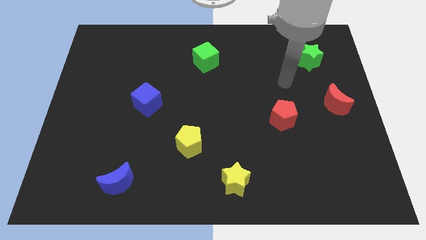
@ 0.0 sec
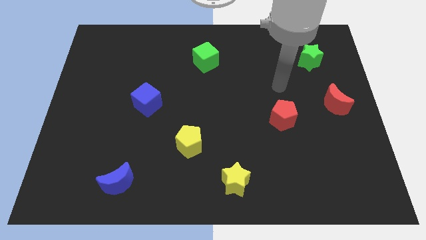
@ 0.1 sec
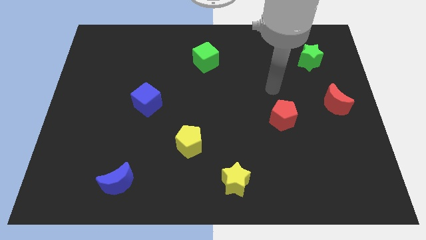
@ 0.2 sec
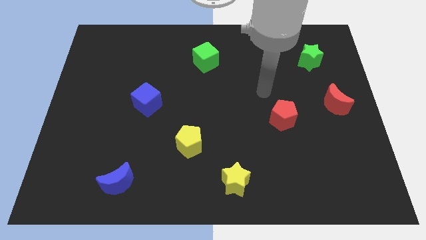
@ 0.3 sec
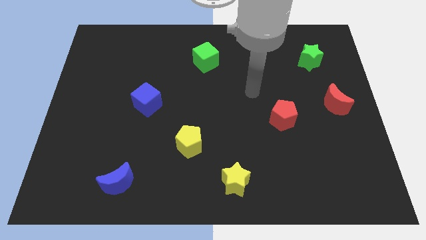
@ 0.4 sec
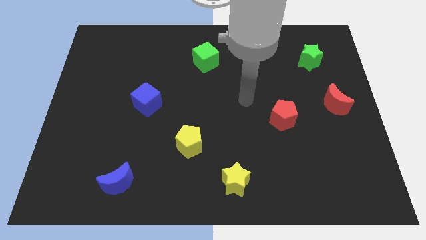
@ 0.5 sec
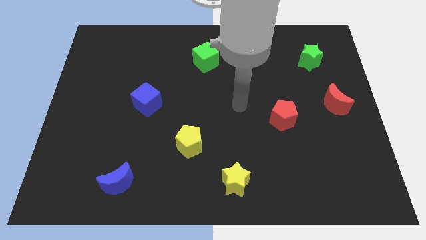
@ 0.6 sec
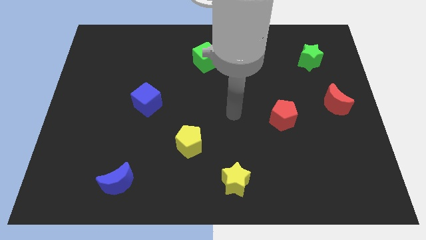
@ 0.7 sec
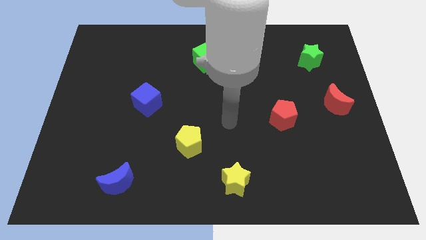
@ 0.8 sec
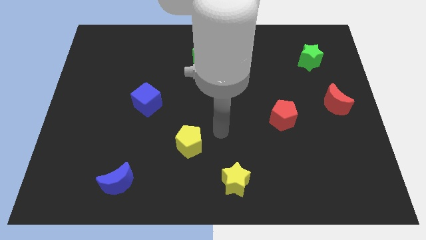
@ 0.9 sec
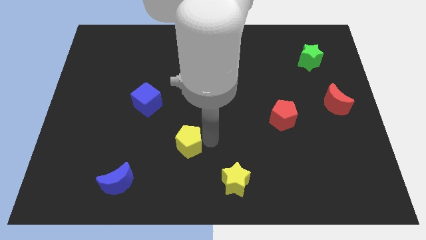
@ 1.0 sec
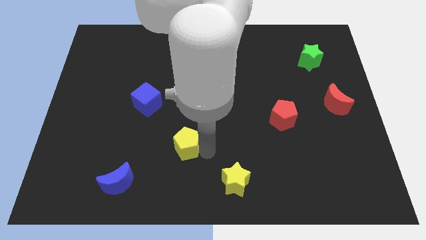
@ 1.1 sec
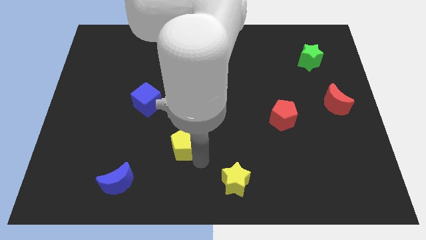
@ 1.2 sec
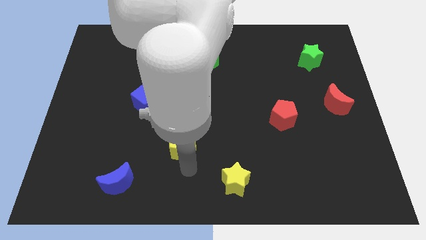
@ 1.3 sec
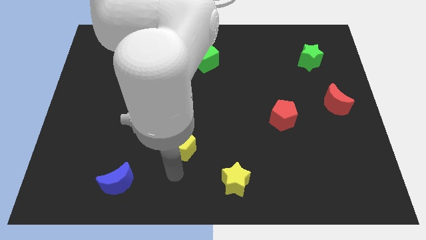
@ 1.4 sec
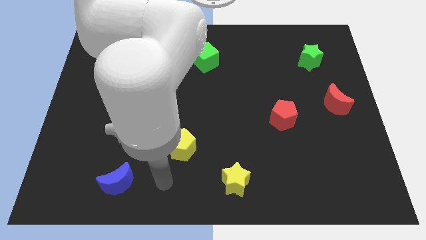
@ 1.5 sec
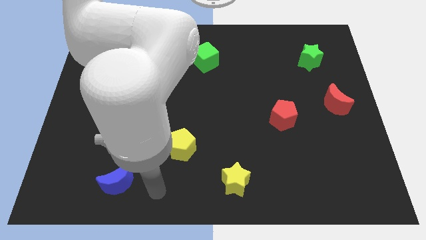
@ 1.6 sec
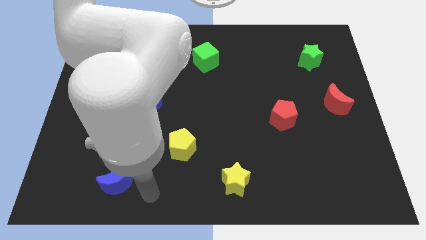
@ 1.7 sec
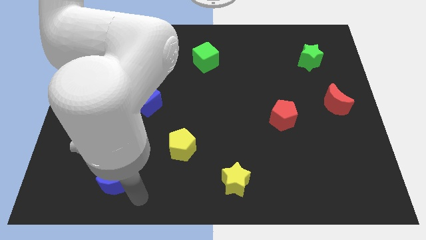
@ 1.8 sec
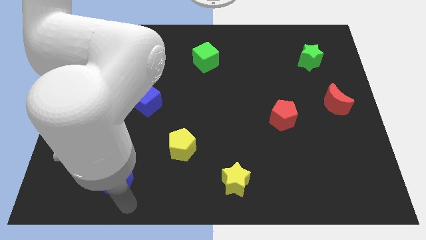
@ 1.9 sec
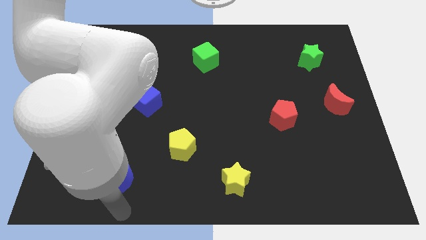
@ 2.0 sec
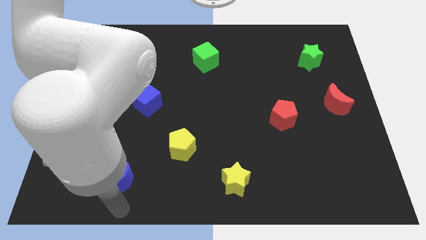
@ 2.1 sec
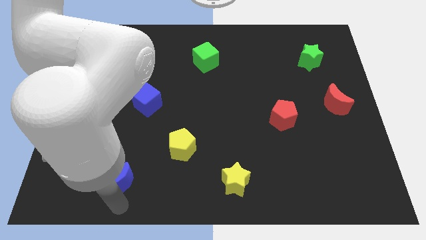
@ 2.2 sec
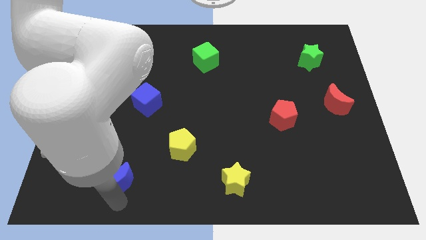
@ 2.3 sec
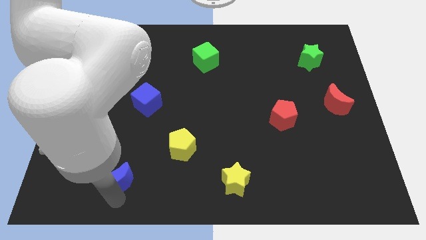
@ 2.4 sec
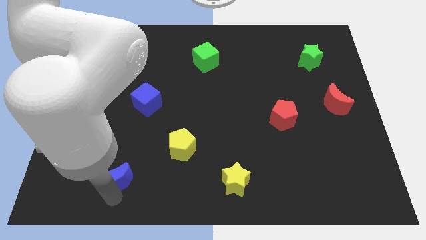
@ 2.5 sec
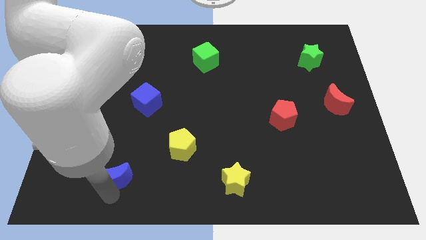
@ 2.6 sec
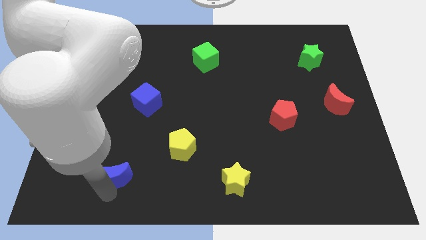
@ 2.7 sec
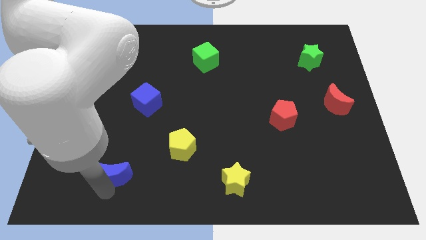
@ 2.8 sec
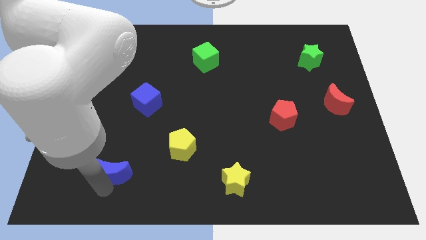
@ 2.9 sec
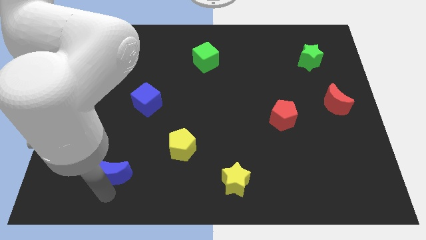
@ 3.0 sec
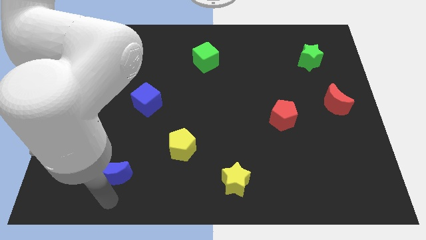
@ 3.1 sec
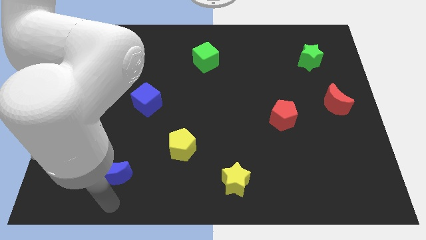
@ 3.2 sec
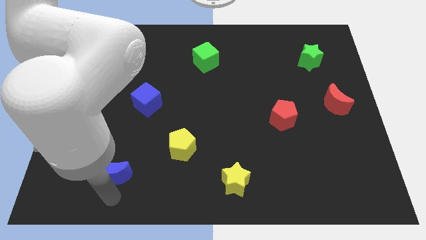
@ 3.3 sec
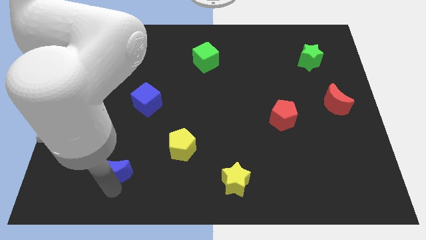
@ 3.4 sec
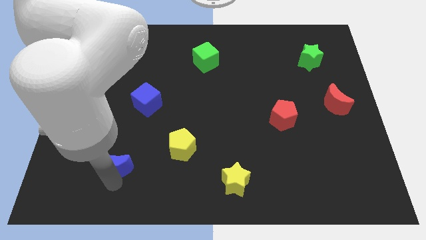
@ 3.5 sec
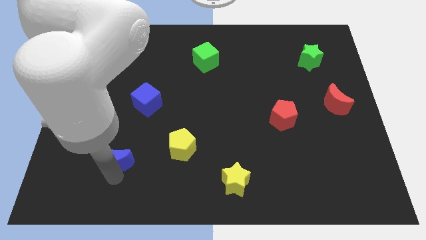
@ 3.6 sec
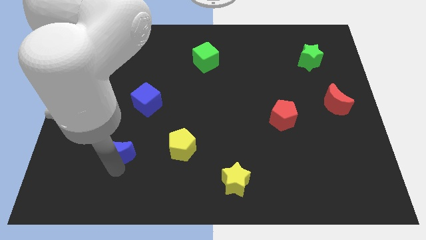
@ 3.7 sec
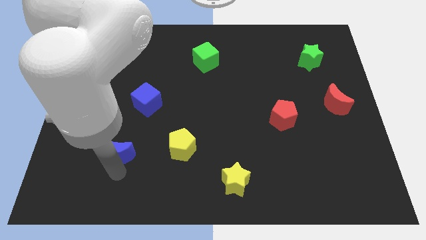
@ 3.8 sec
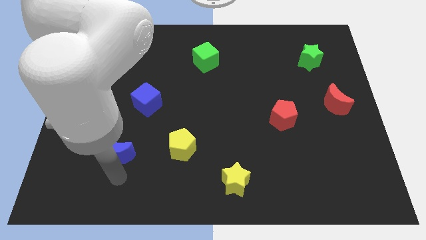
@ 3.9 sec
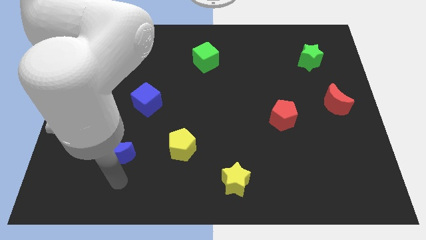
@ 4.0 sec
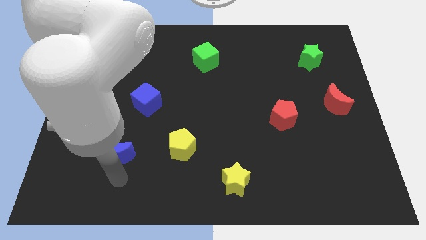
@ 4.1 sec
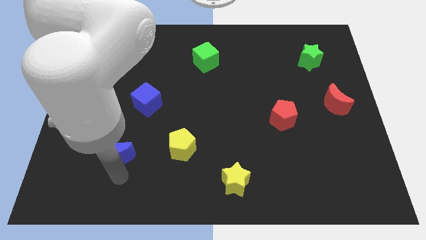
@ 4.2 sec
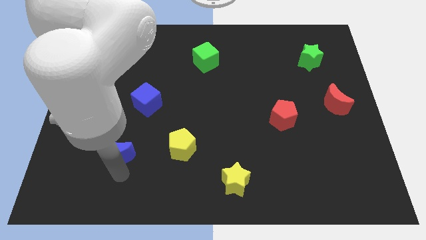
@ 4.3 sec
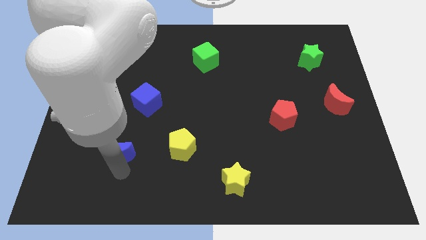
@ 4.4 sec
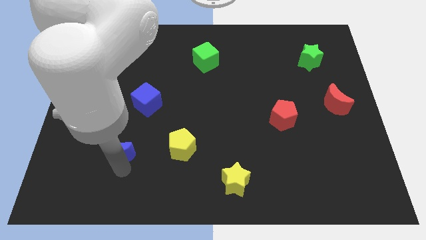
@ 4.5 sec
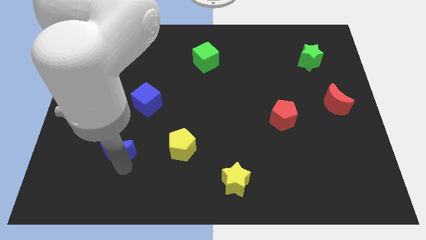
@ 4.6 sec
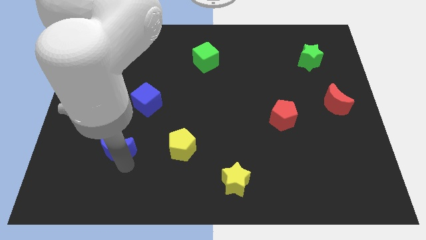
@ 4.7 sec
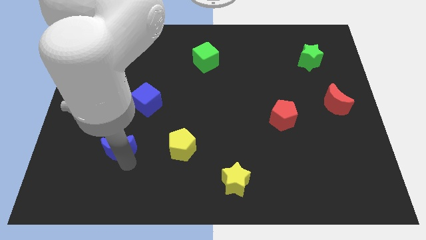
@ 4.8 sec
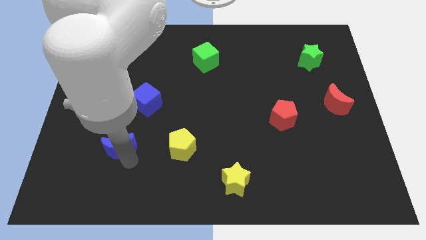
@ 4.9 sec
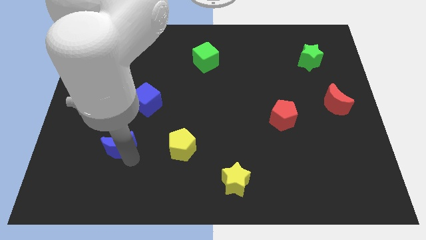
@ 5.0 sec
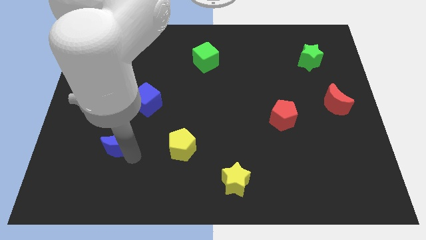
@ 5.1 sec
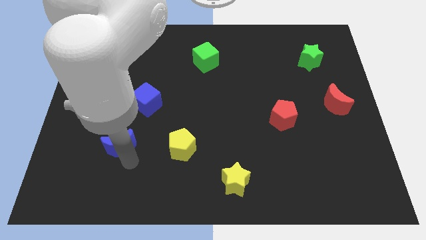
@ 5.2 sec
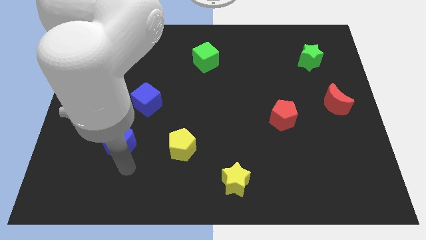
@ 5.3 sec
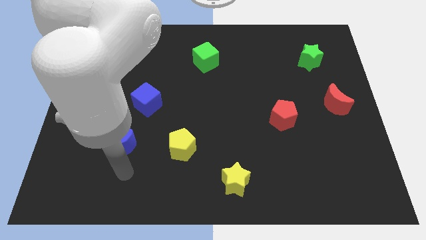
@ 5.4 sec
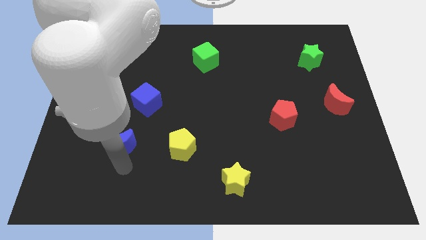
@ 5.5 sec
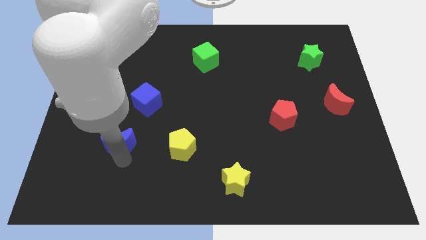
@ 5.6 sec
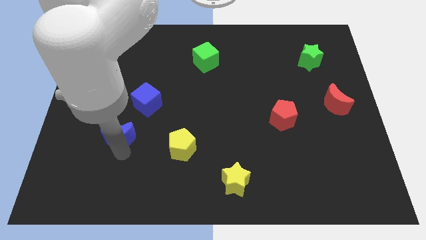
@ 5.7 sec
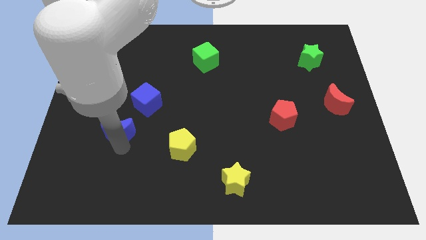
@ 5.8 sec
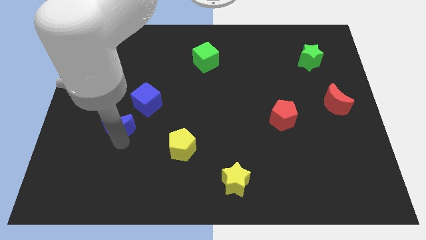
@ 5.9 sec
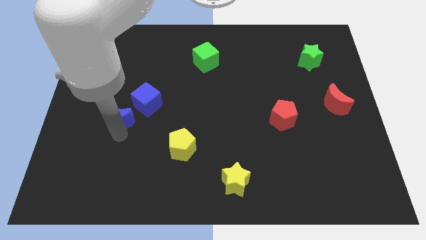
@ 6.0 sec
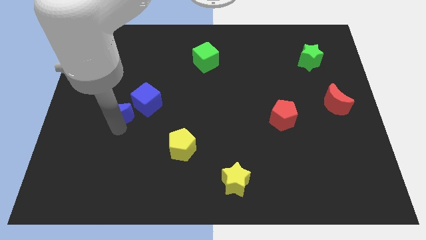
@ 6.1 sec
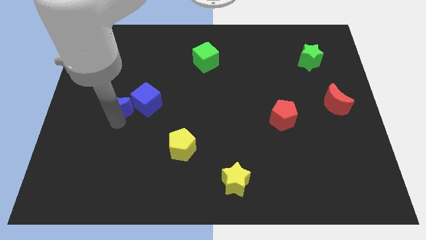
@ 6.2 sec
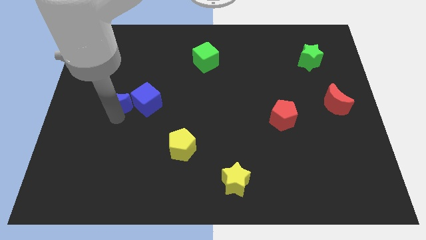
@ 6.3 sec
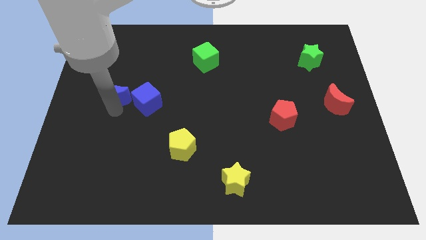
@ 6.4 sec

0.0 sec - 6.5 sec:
slide the blue moon upwards

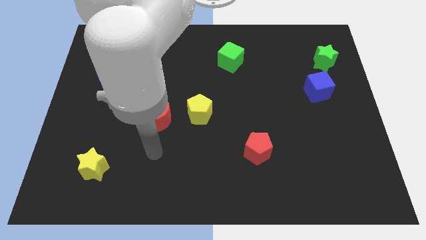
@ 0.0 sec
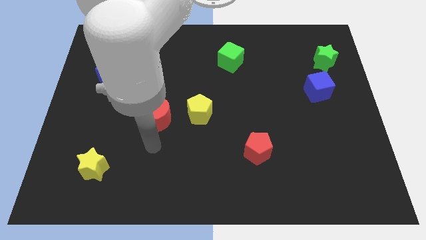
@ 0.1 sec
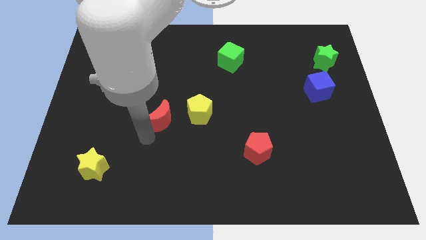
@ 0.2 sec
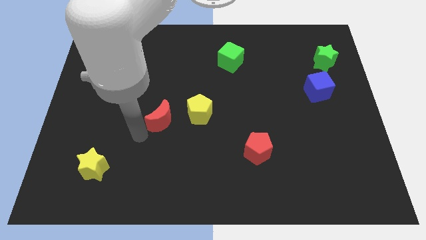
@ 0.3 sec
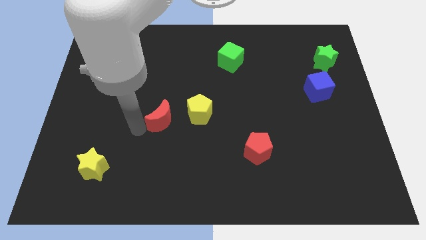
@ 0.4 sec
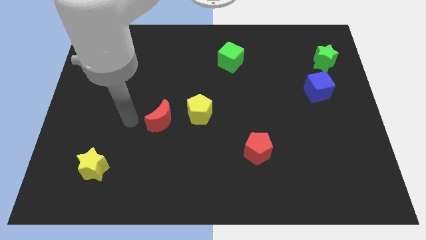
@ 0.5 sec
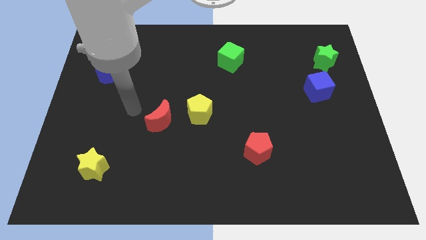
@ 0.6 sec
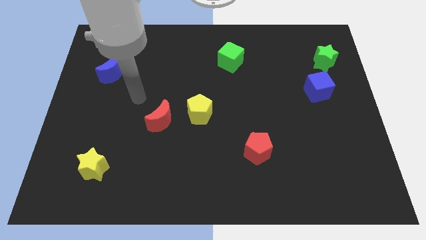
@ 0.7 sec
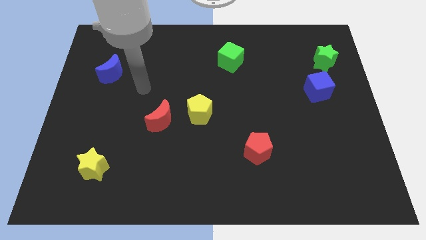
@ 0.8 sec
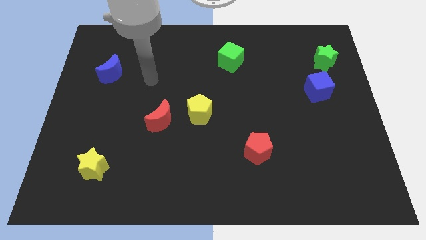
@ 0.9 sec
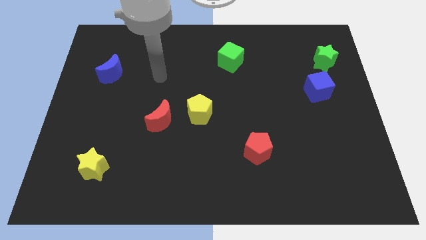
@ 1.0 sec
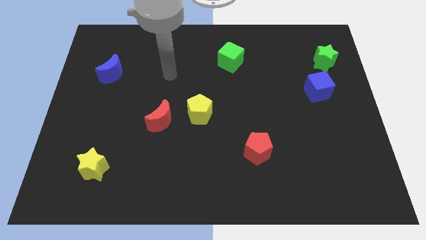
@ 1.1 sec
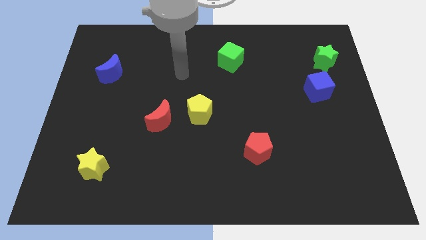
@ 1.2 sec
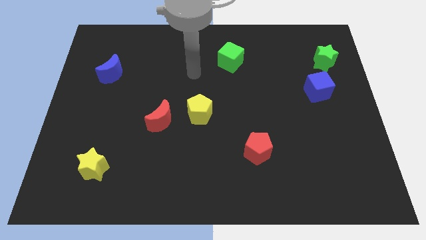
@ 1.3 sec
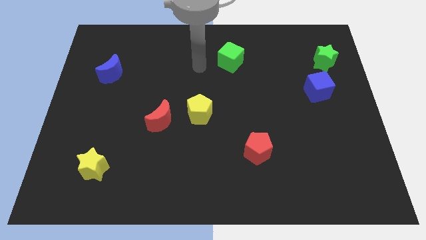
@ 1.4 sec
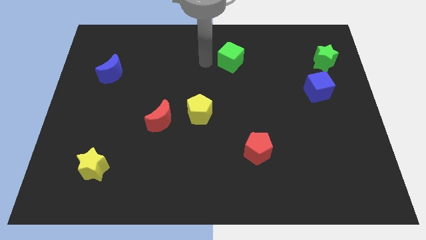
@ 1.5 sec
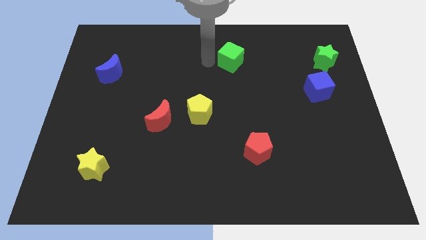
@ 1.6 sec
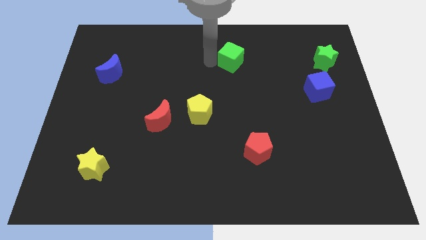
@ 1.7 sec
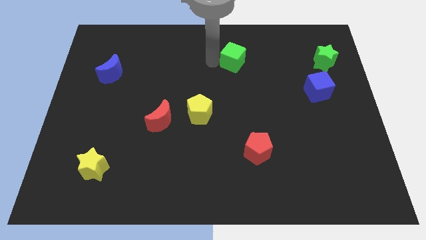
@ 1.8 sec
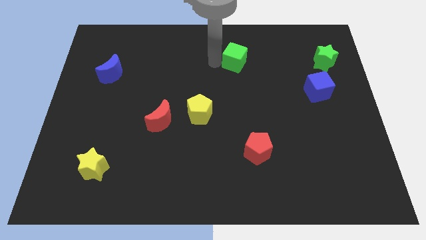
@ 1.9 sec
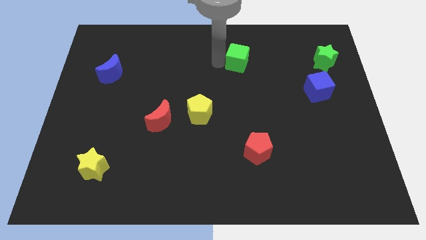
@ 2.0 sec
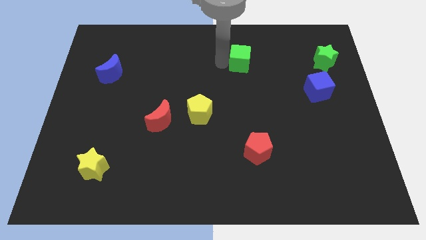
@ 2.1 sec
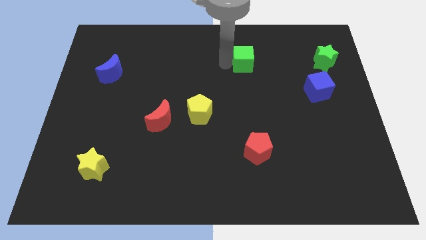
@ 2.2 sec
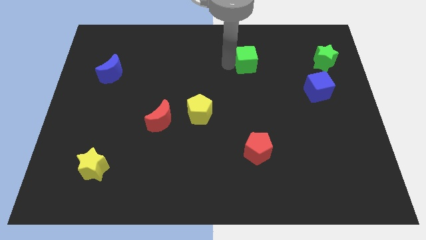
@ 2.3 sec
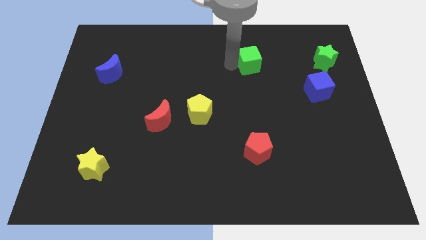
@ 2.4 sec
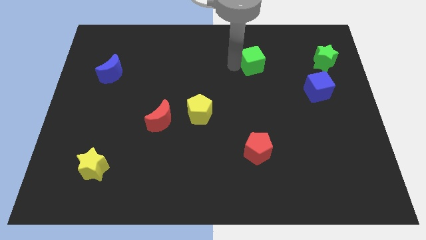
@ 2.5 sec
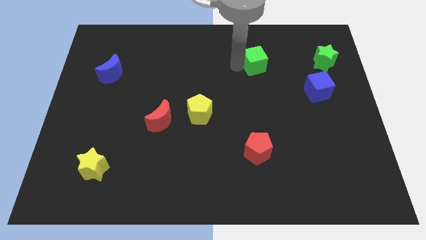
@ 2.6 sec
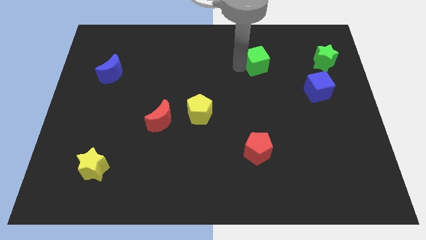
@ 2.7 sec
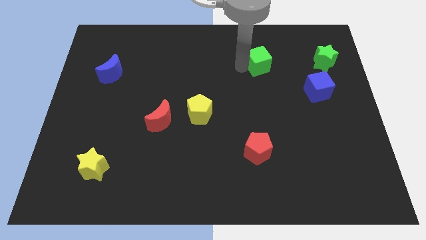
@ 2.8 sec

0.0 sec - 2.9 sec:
slightly move the green cube right
